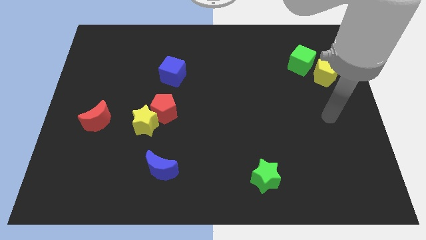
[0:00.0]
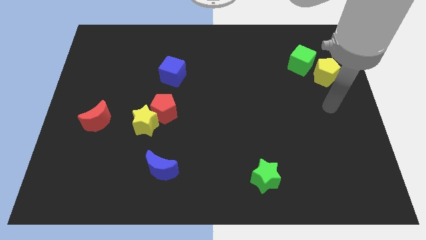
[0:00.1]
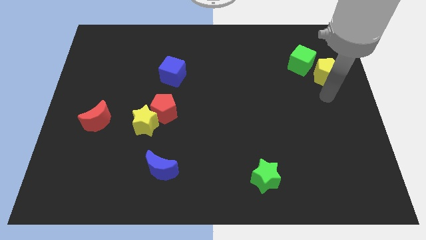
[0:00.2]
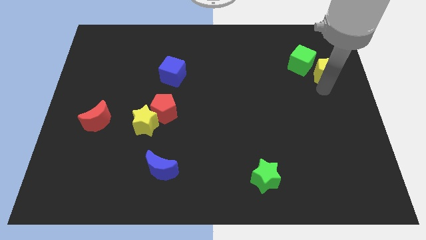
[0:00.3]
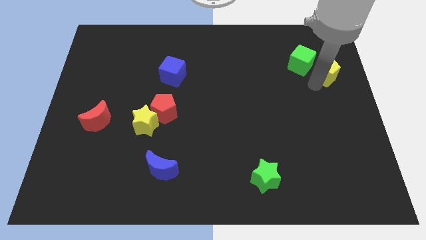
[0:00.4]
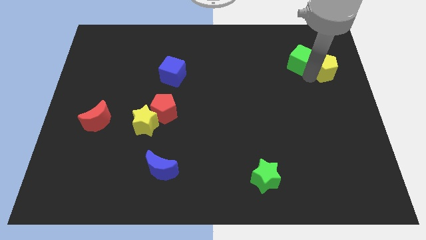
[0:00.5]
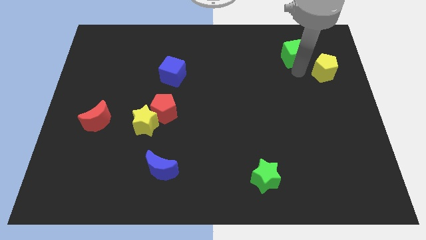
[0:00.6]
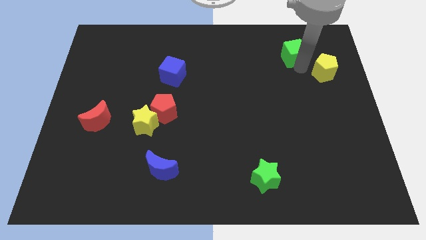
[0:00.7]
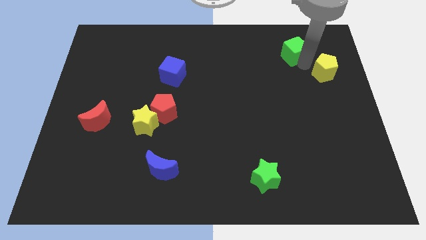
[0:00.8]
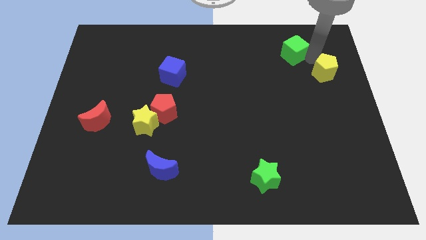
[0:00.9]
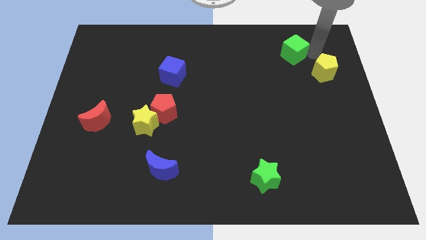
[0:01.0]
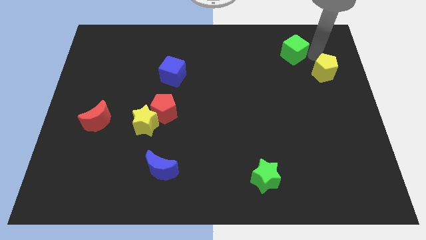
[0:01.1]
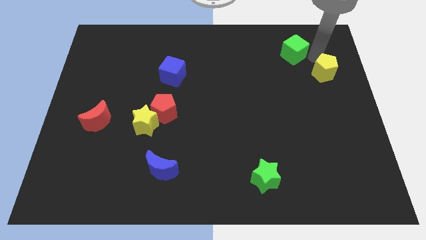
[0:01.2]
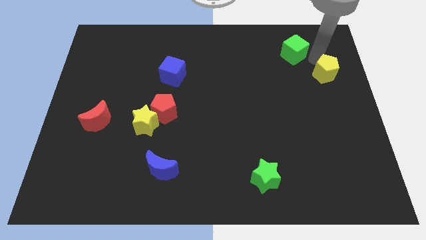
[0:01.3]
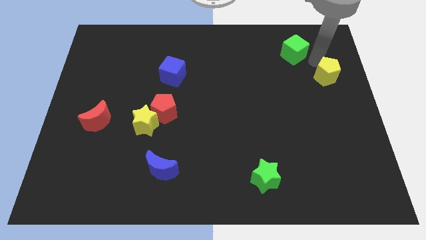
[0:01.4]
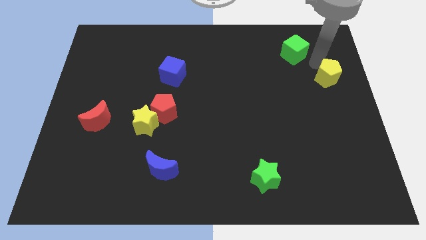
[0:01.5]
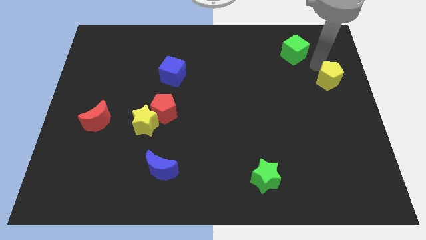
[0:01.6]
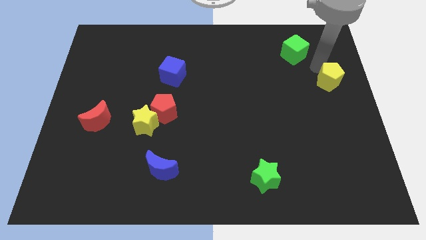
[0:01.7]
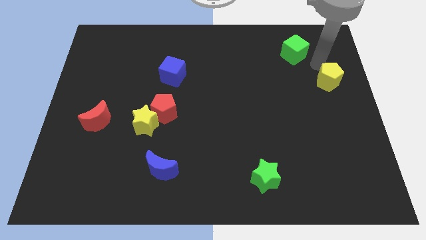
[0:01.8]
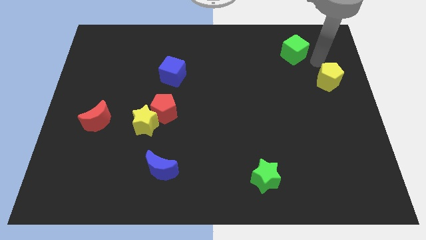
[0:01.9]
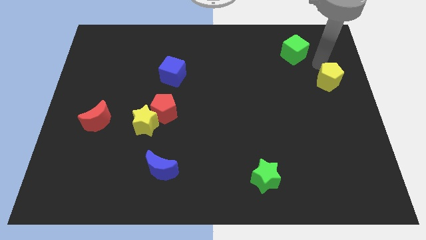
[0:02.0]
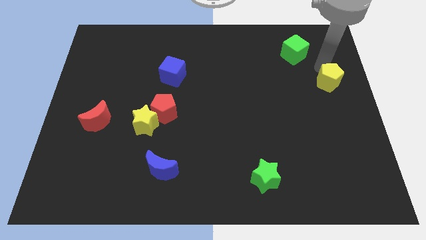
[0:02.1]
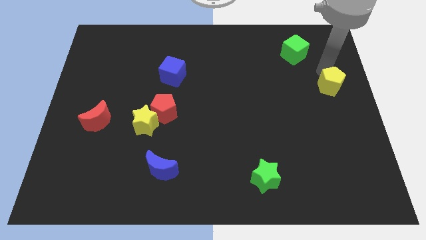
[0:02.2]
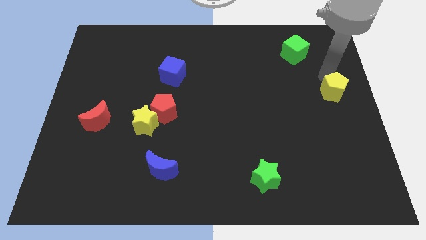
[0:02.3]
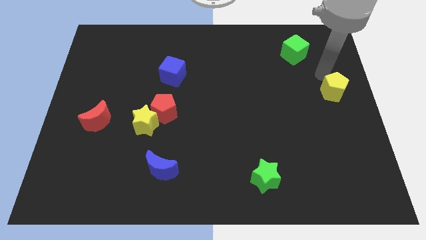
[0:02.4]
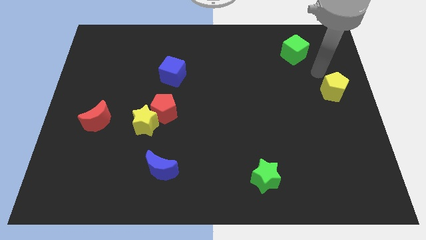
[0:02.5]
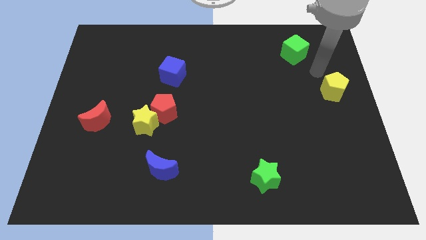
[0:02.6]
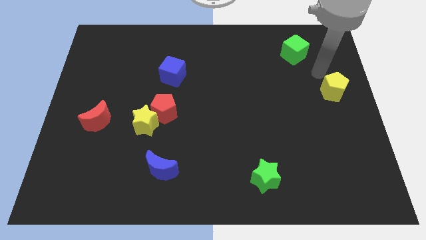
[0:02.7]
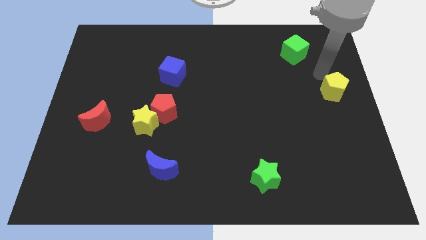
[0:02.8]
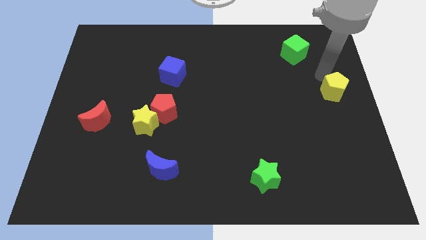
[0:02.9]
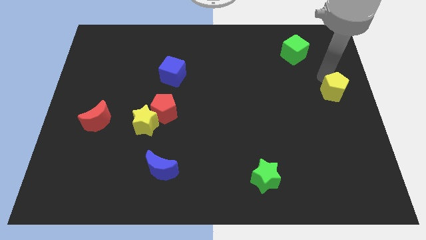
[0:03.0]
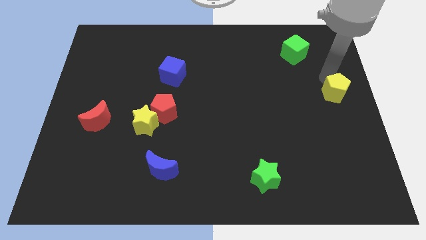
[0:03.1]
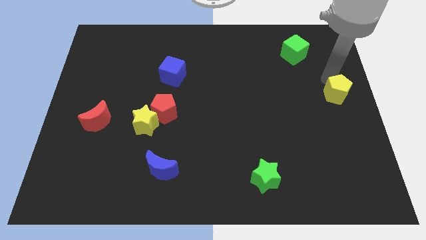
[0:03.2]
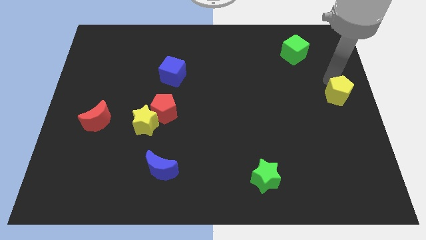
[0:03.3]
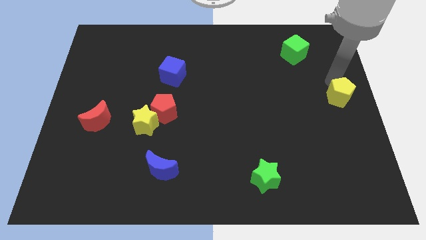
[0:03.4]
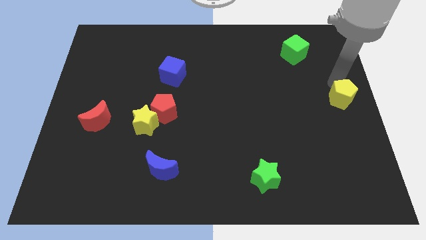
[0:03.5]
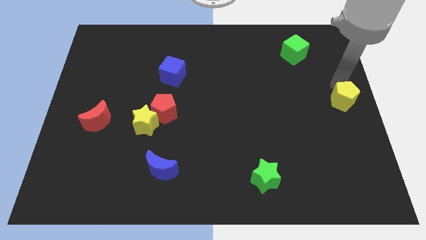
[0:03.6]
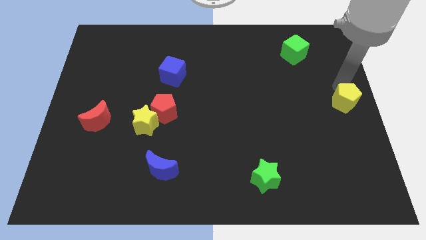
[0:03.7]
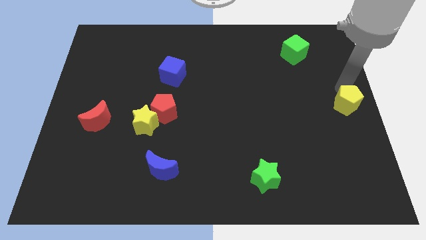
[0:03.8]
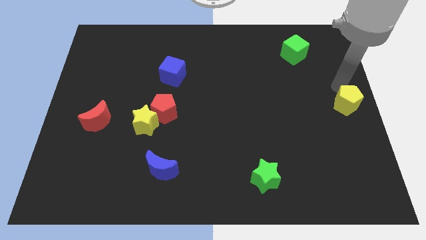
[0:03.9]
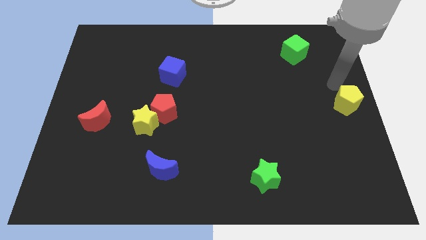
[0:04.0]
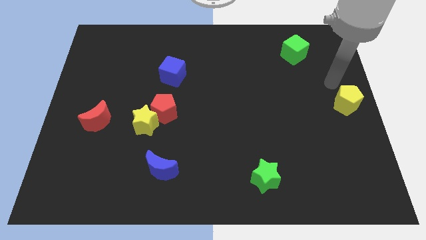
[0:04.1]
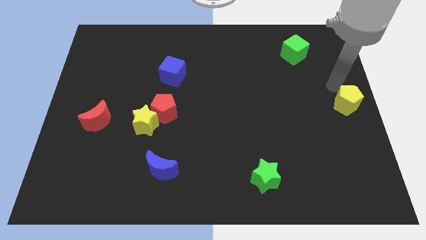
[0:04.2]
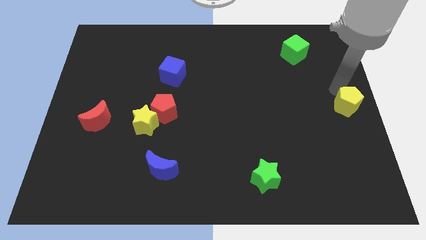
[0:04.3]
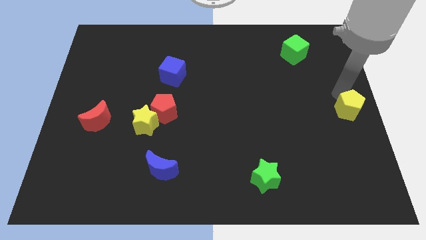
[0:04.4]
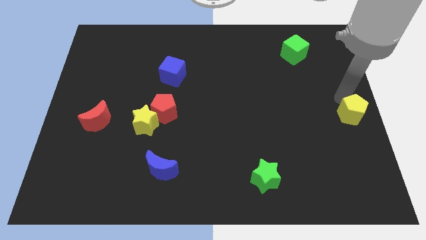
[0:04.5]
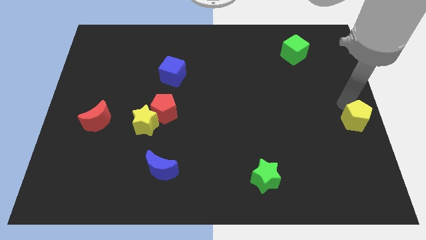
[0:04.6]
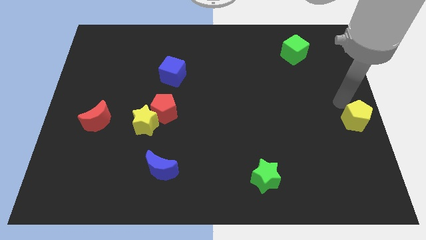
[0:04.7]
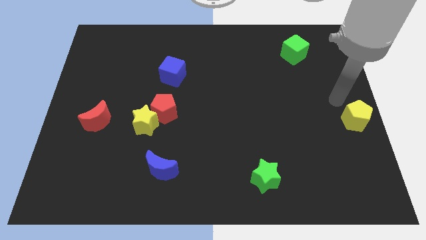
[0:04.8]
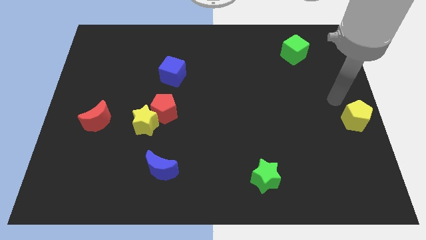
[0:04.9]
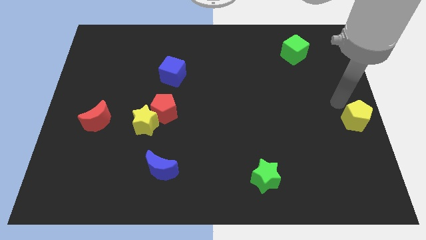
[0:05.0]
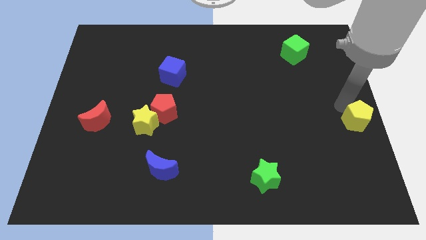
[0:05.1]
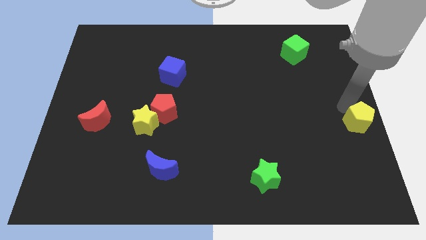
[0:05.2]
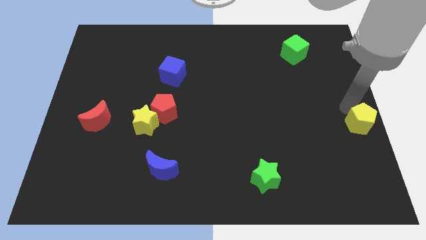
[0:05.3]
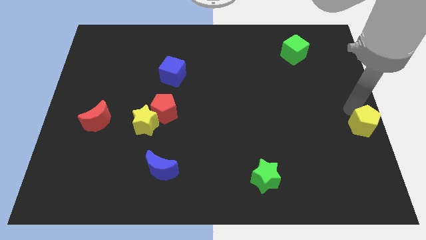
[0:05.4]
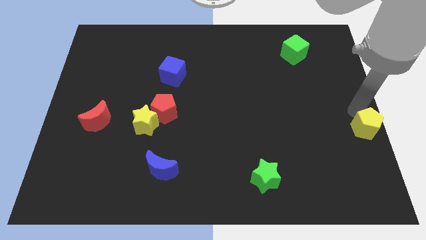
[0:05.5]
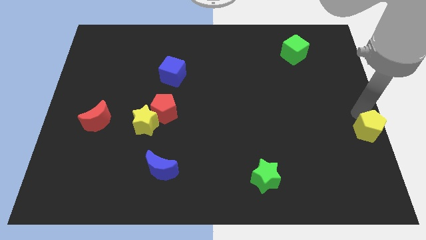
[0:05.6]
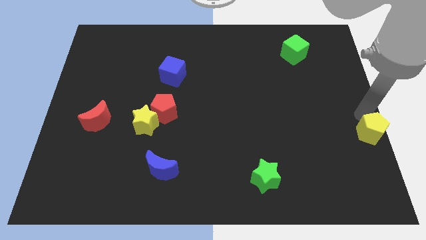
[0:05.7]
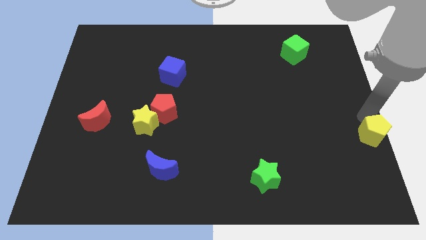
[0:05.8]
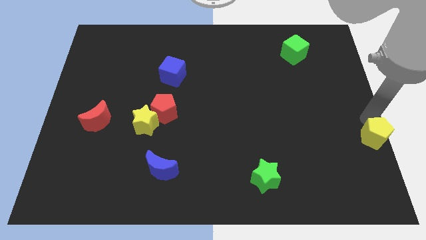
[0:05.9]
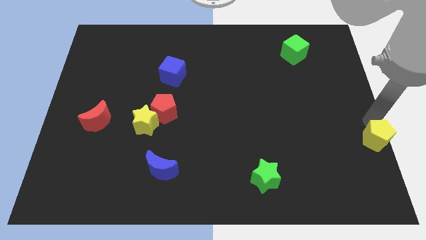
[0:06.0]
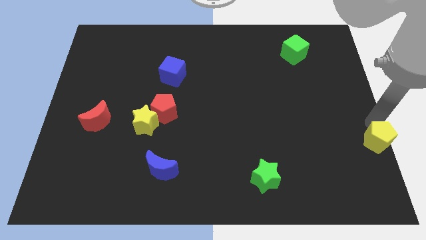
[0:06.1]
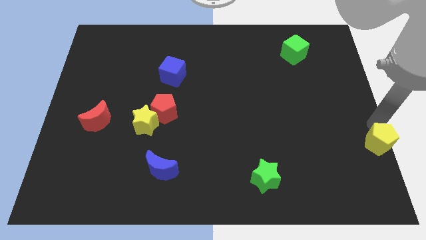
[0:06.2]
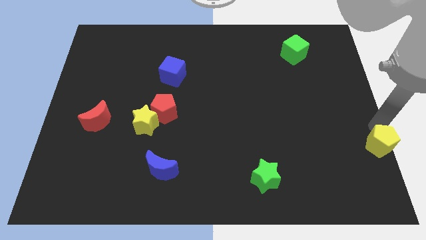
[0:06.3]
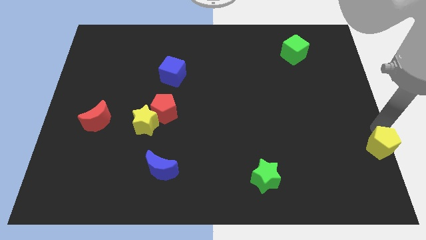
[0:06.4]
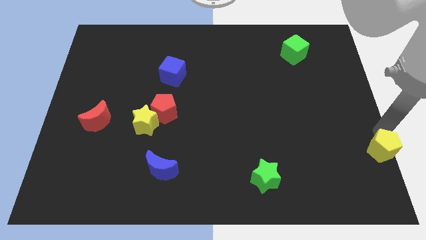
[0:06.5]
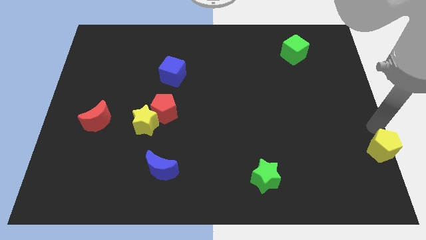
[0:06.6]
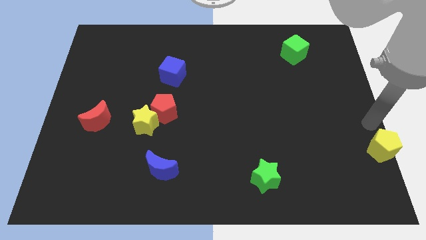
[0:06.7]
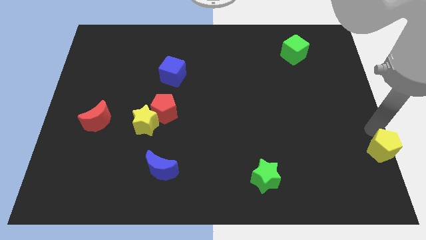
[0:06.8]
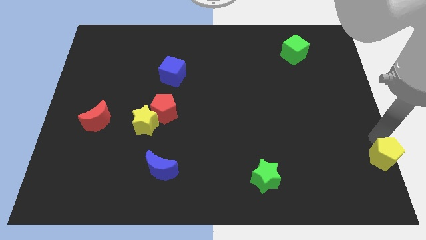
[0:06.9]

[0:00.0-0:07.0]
put the yellow pentagon to the bottom right
